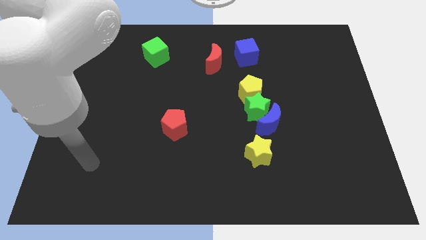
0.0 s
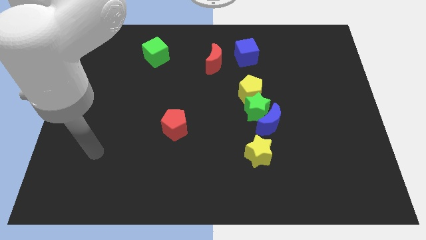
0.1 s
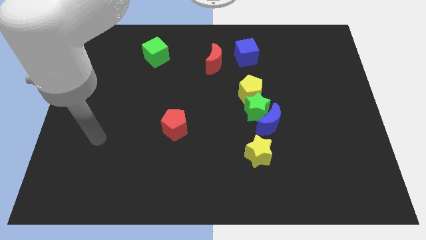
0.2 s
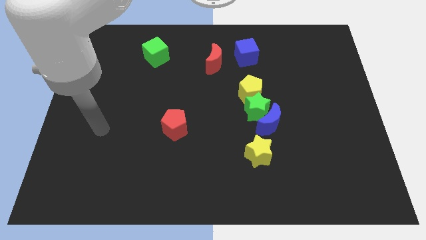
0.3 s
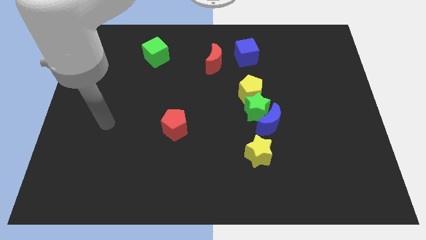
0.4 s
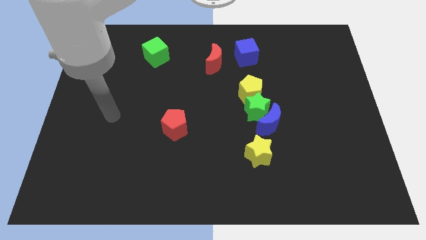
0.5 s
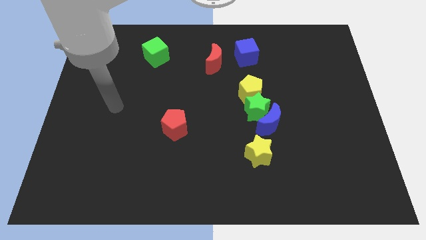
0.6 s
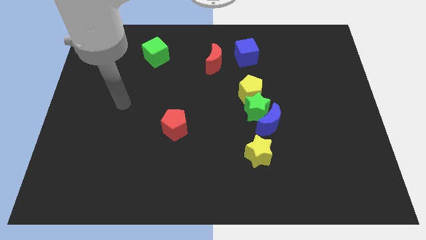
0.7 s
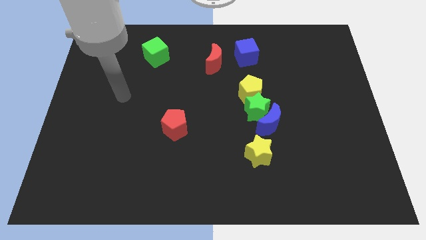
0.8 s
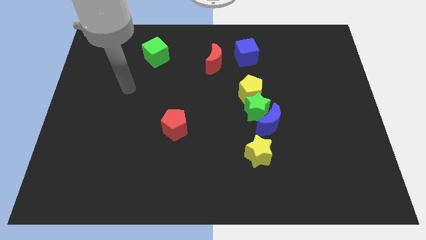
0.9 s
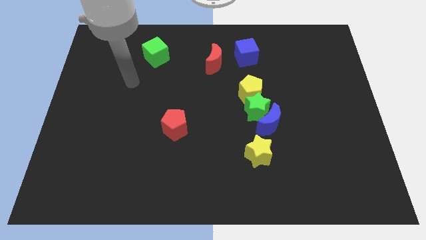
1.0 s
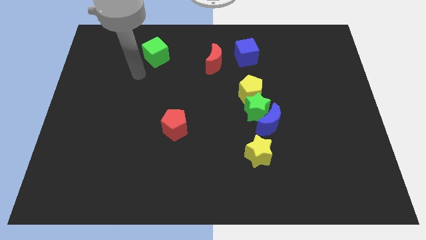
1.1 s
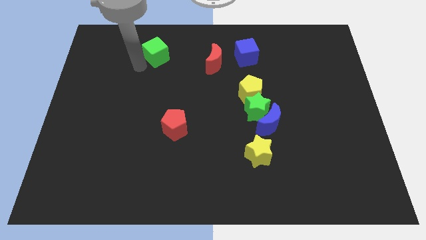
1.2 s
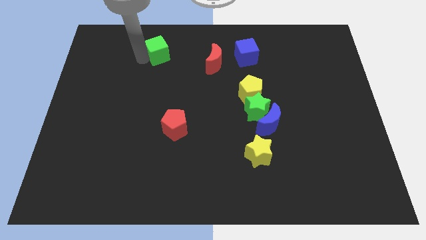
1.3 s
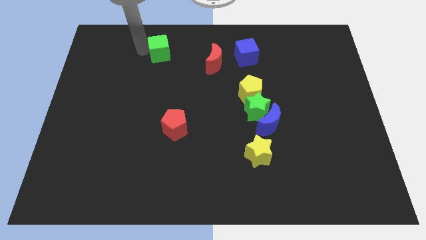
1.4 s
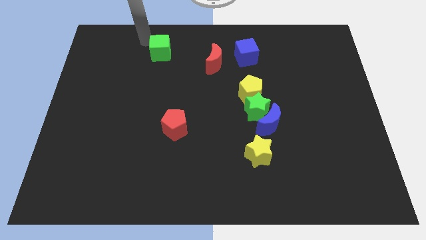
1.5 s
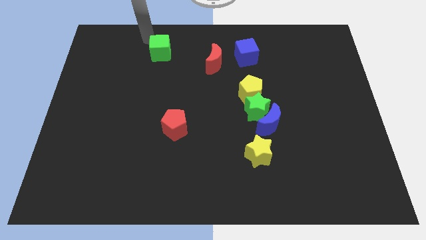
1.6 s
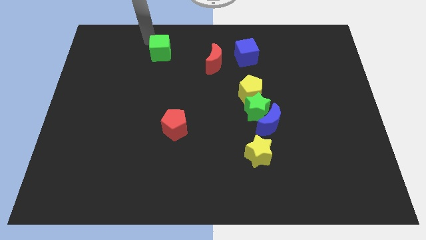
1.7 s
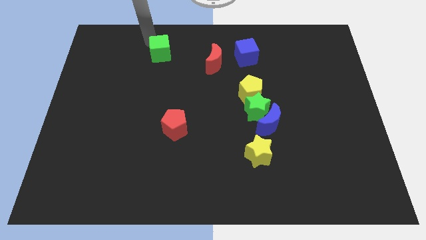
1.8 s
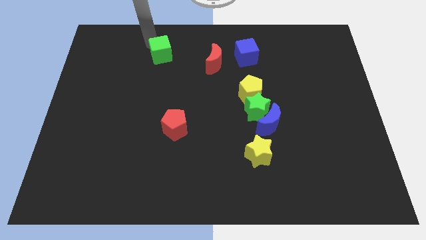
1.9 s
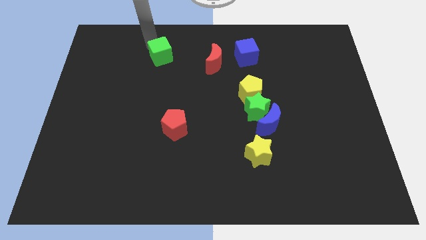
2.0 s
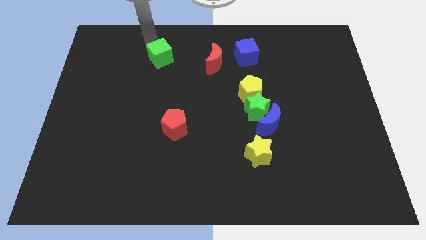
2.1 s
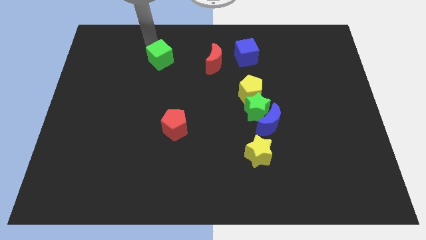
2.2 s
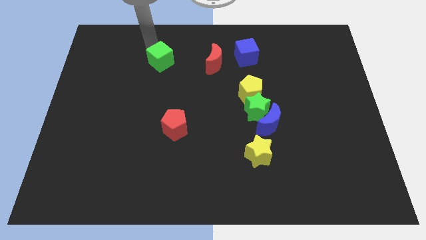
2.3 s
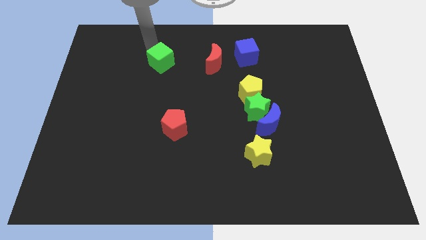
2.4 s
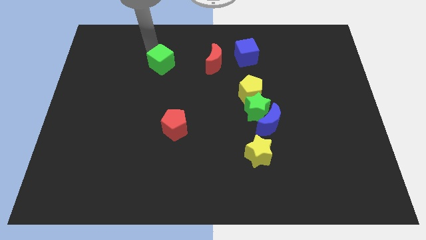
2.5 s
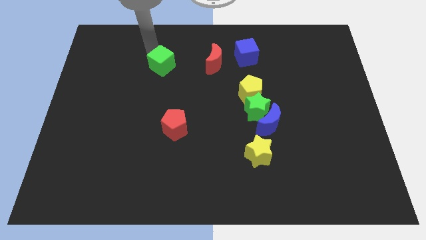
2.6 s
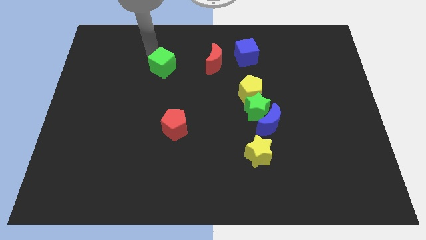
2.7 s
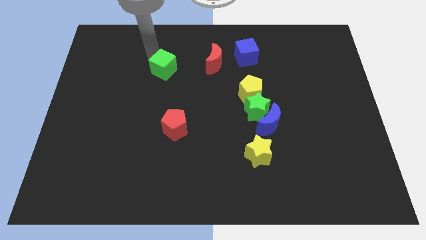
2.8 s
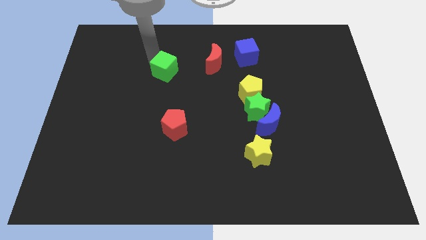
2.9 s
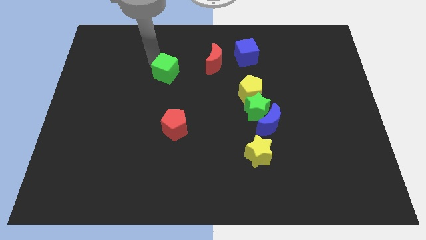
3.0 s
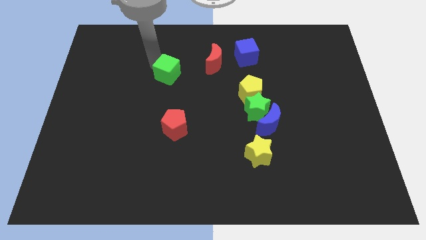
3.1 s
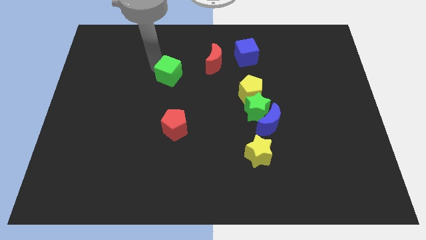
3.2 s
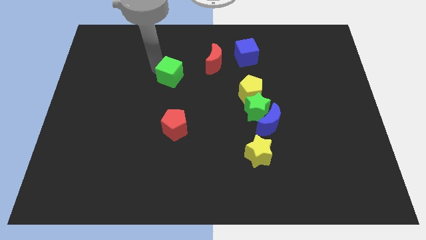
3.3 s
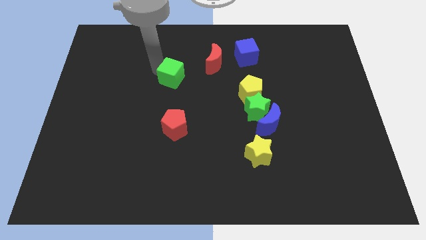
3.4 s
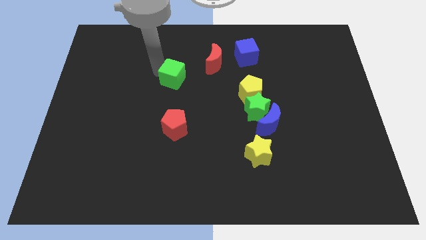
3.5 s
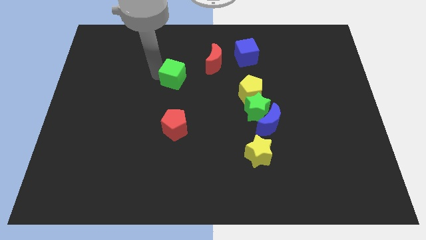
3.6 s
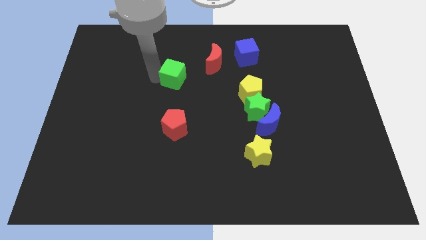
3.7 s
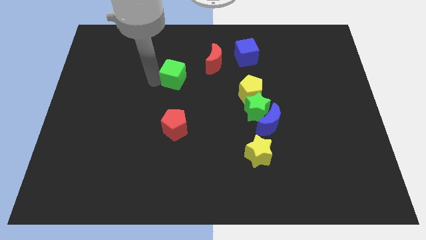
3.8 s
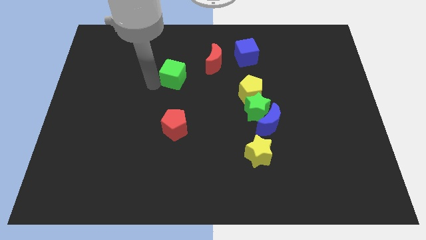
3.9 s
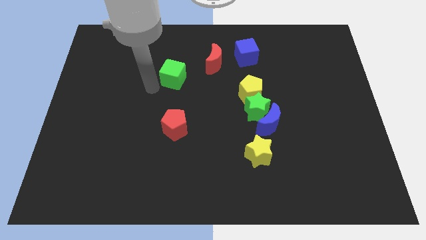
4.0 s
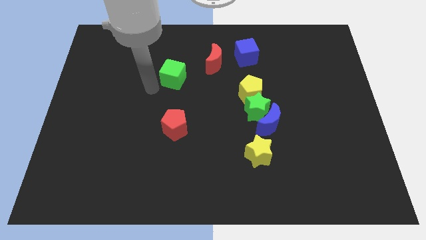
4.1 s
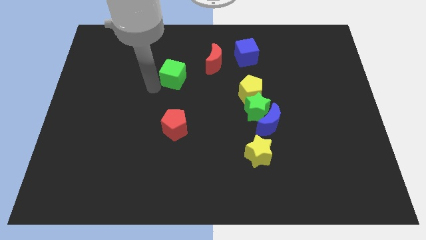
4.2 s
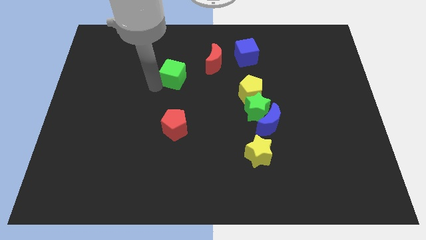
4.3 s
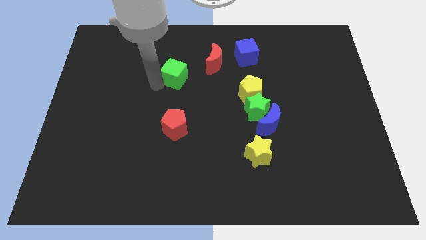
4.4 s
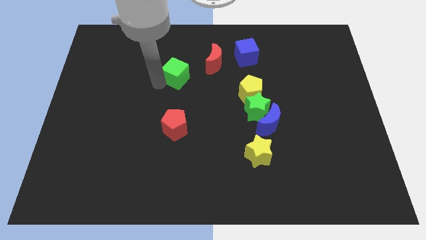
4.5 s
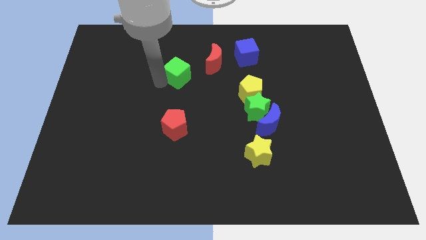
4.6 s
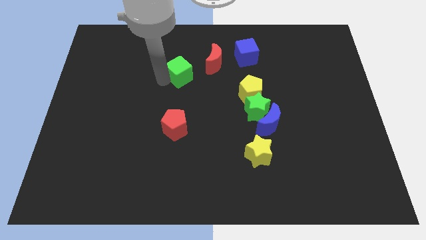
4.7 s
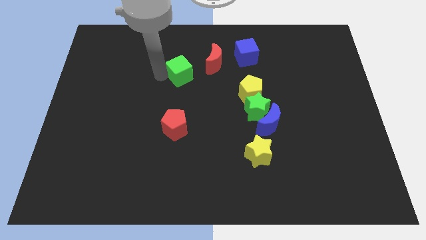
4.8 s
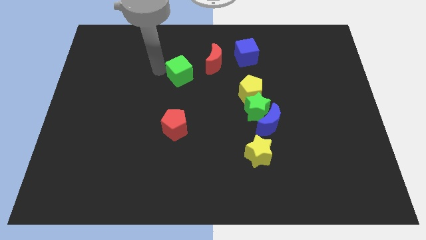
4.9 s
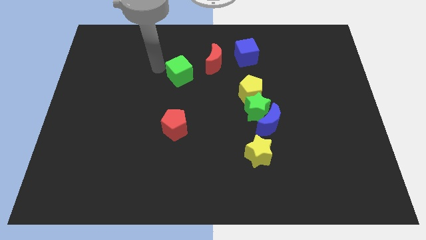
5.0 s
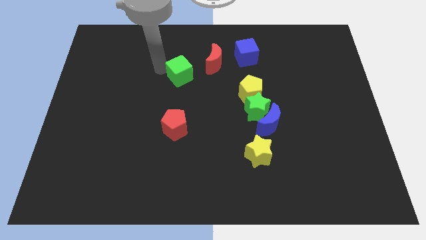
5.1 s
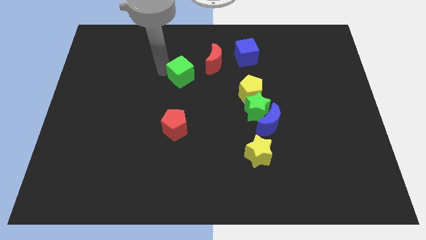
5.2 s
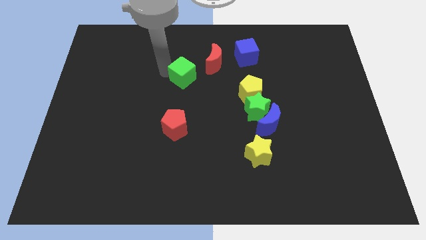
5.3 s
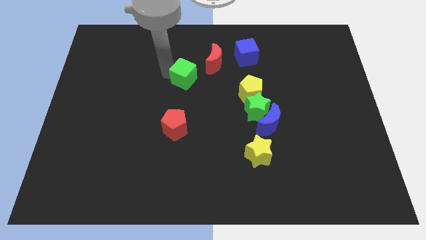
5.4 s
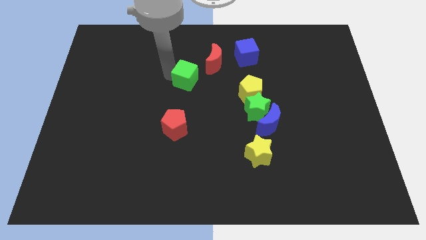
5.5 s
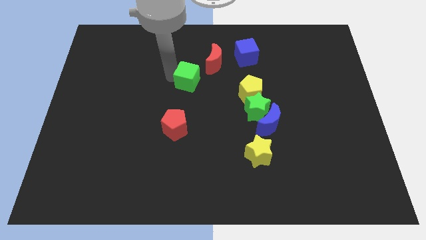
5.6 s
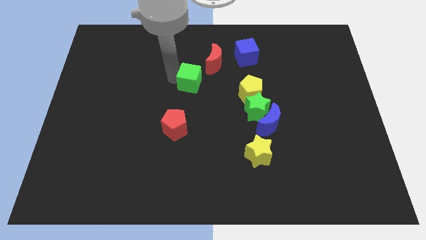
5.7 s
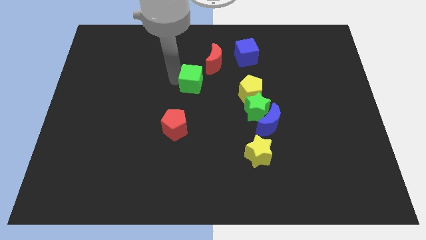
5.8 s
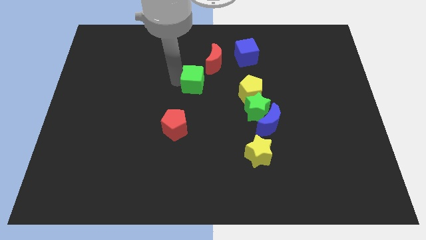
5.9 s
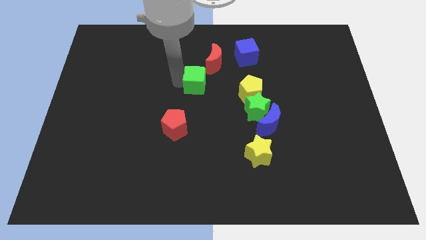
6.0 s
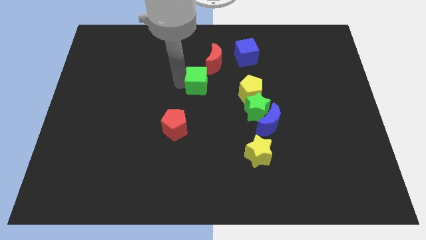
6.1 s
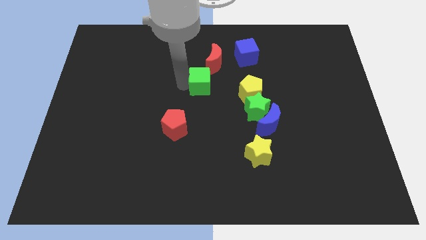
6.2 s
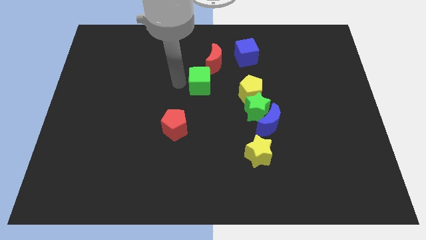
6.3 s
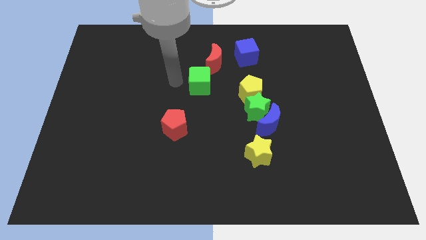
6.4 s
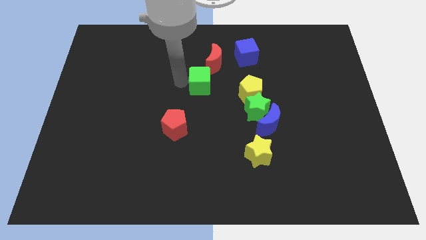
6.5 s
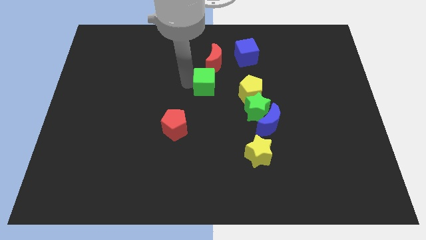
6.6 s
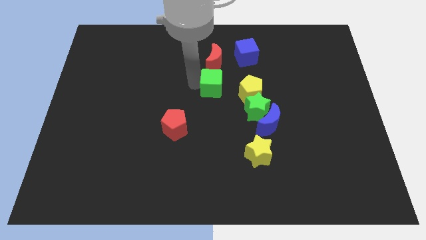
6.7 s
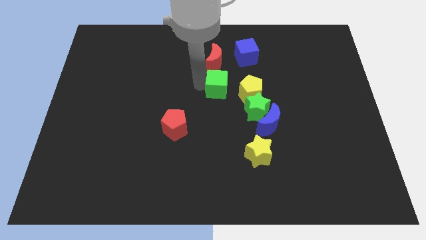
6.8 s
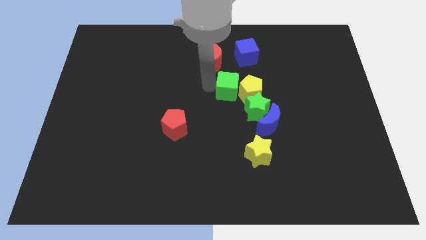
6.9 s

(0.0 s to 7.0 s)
slide the green cube towards the yellow pentagon

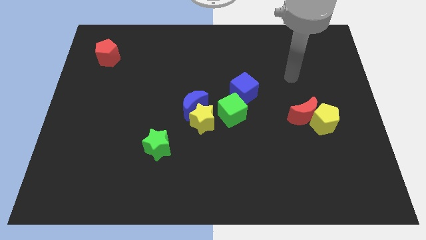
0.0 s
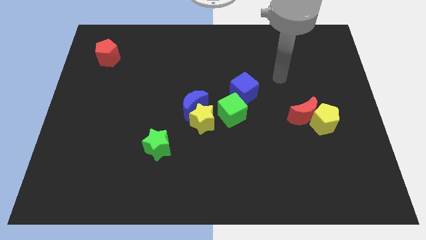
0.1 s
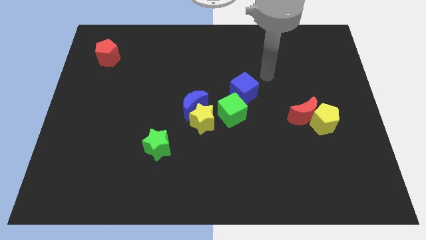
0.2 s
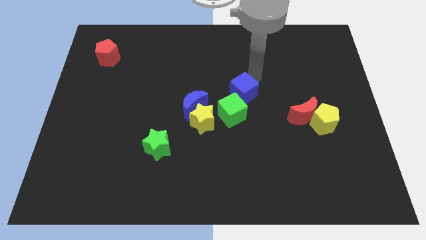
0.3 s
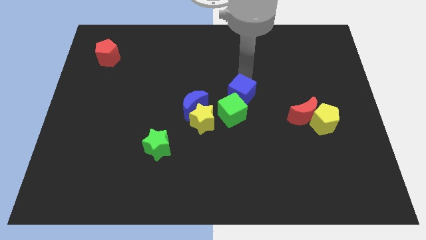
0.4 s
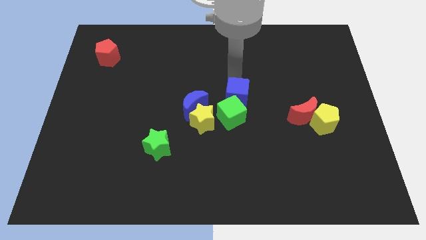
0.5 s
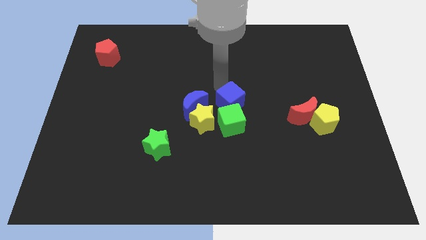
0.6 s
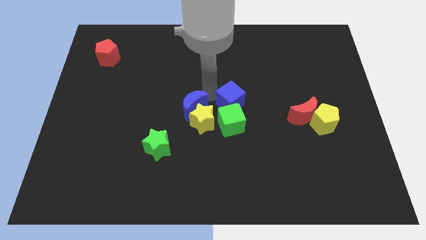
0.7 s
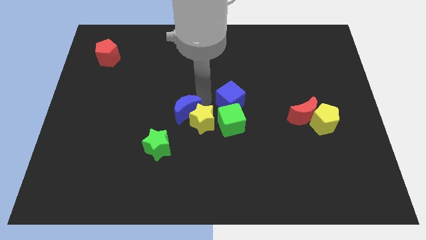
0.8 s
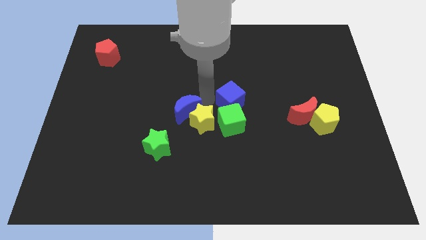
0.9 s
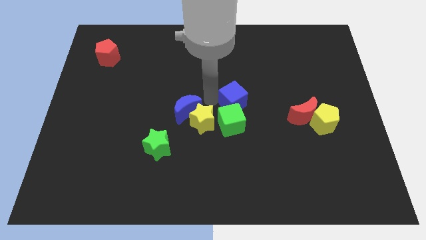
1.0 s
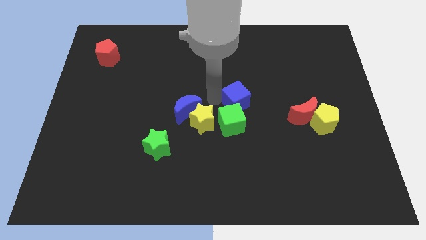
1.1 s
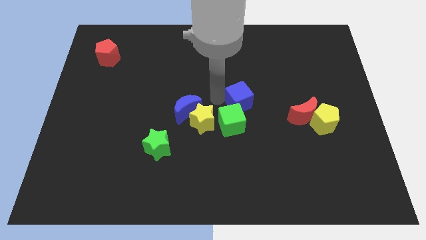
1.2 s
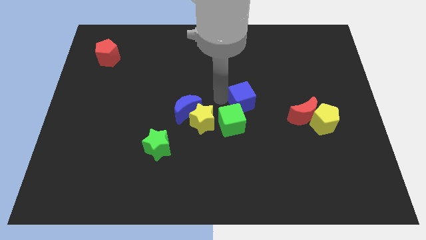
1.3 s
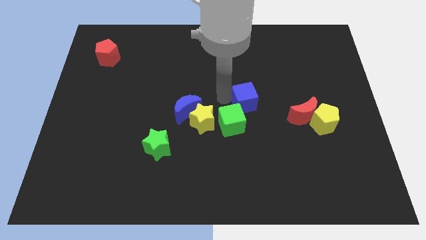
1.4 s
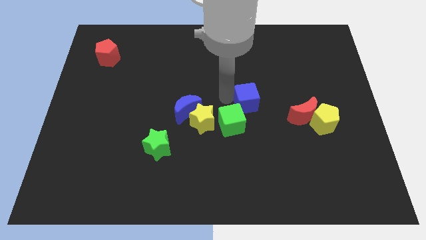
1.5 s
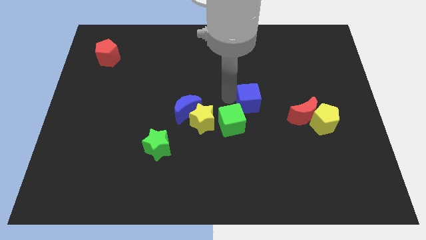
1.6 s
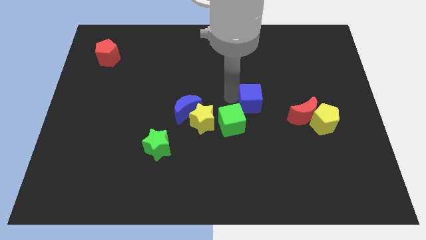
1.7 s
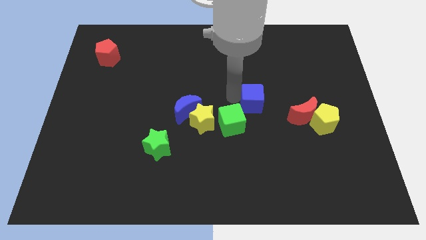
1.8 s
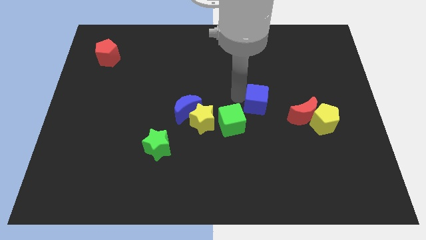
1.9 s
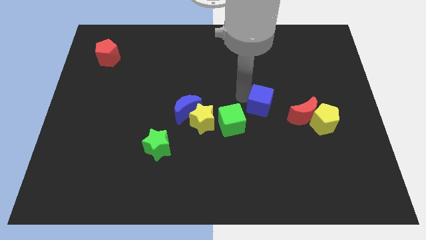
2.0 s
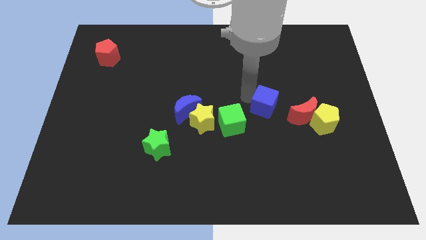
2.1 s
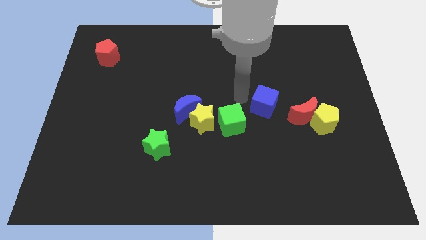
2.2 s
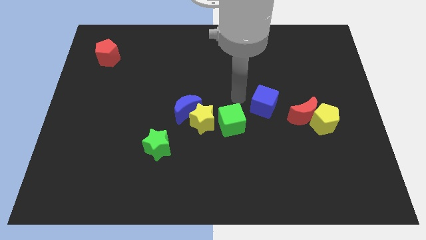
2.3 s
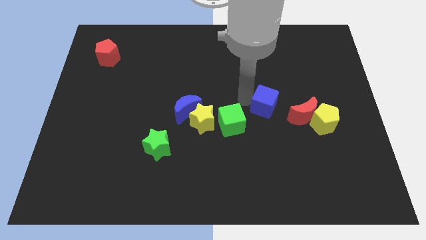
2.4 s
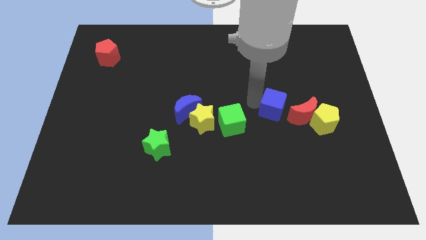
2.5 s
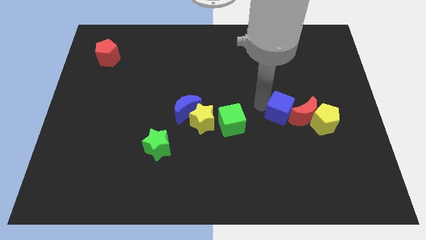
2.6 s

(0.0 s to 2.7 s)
put the blue cube to the red moon
